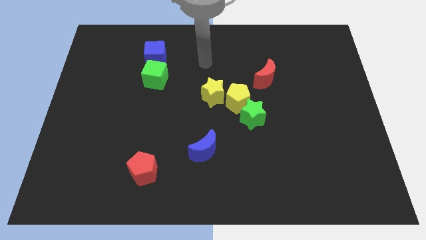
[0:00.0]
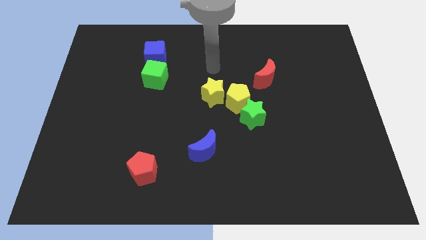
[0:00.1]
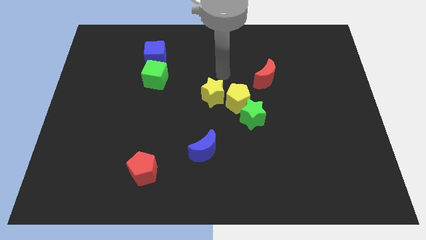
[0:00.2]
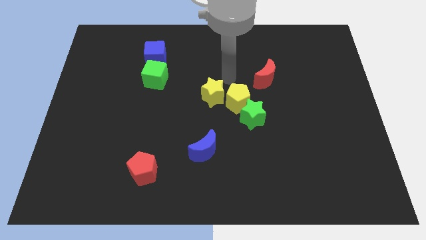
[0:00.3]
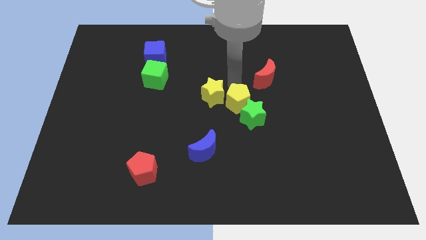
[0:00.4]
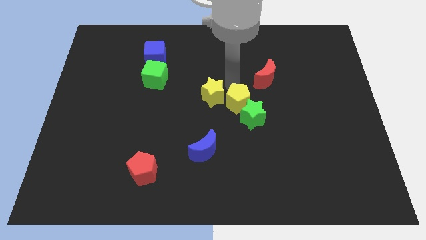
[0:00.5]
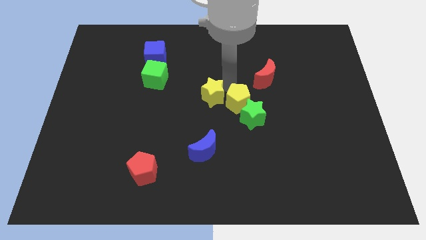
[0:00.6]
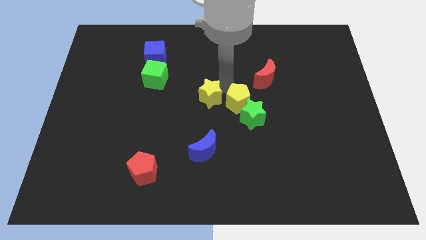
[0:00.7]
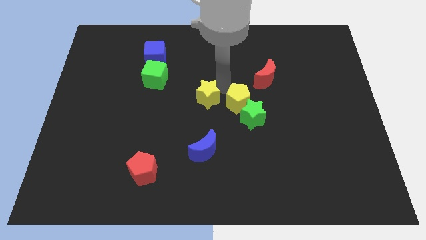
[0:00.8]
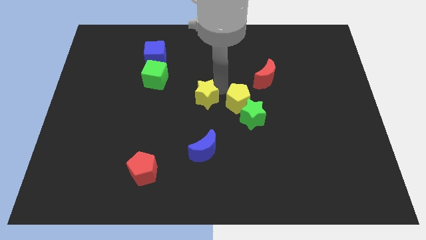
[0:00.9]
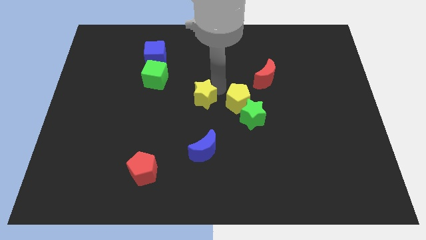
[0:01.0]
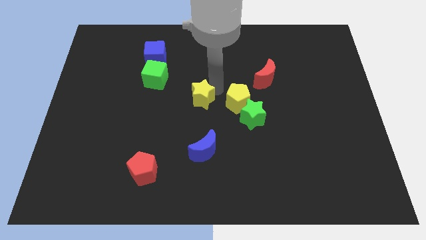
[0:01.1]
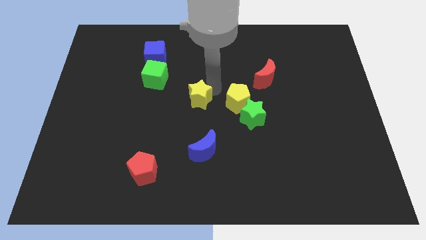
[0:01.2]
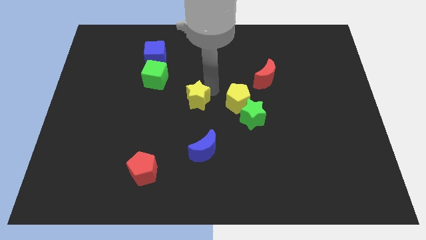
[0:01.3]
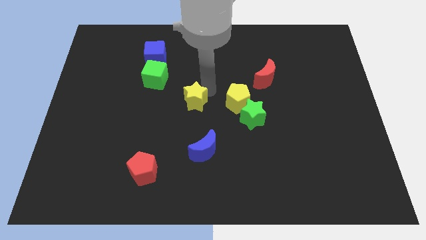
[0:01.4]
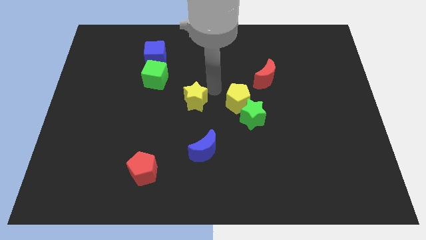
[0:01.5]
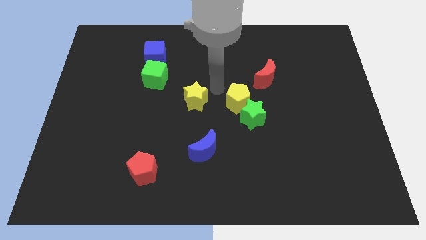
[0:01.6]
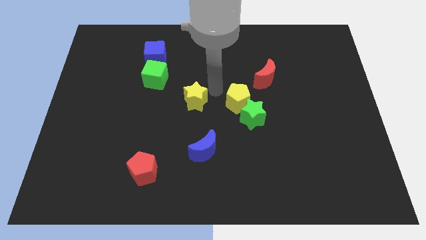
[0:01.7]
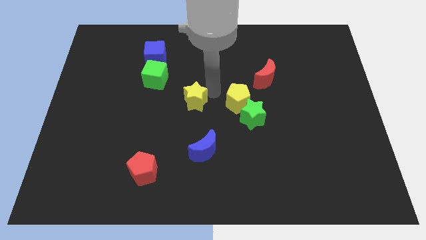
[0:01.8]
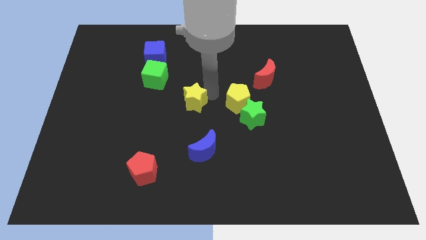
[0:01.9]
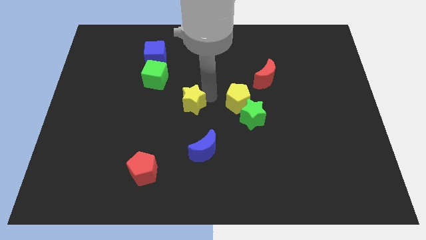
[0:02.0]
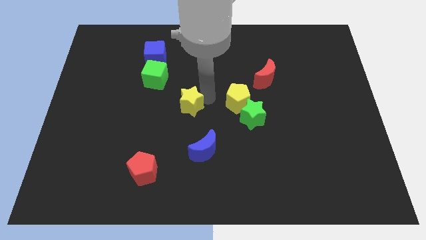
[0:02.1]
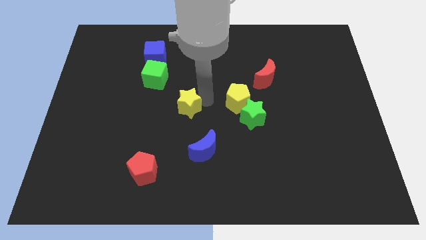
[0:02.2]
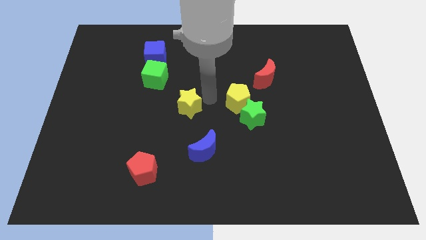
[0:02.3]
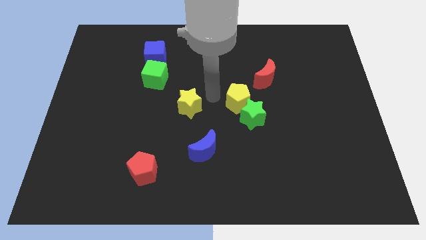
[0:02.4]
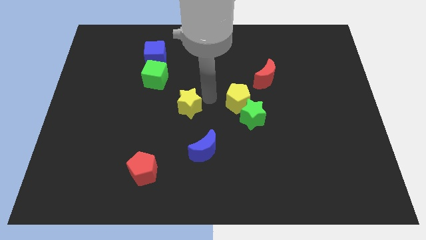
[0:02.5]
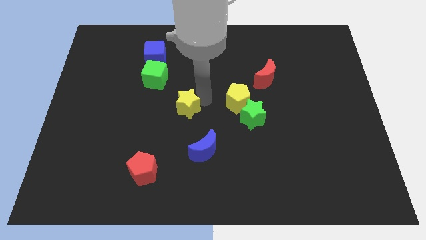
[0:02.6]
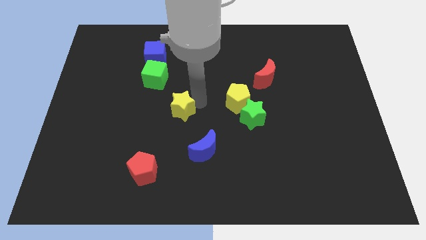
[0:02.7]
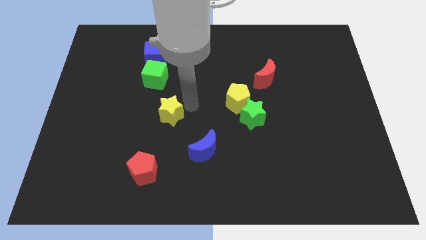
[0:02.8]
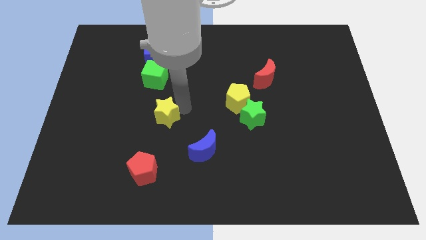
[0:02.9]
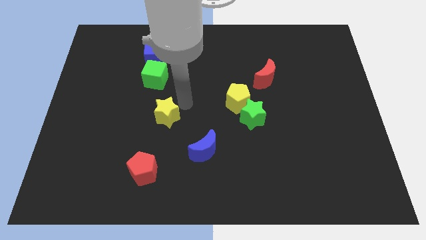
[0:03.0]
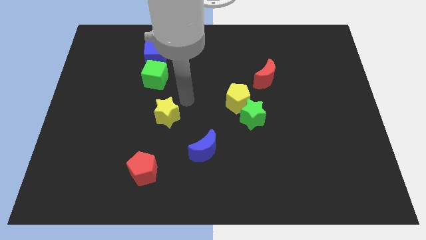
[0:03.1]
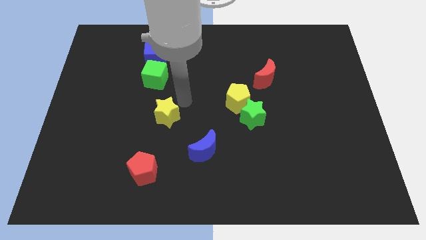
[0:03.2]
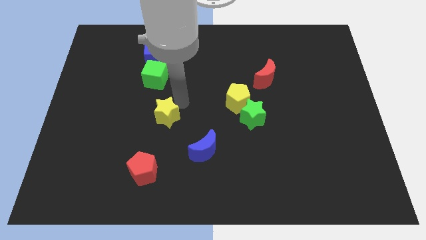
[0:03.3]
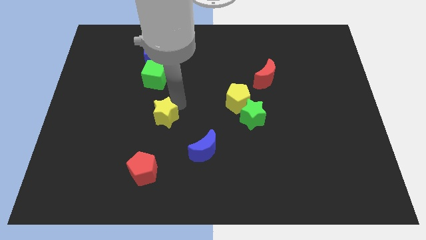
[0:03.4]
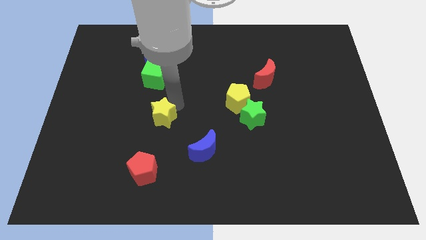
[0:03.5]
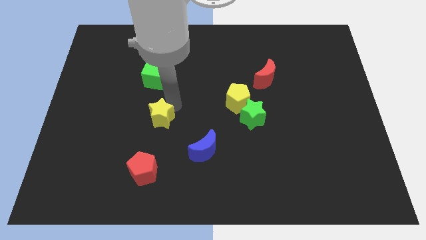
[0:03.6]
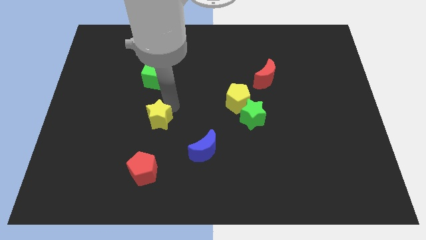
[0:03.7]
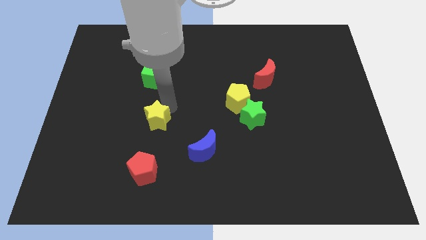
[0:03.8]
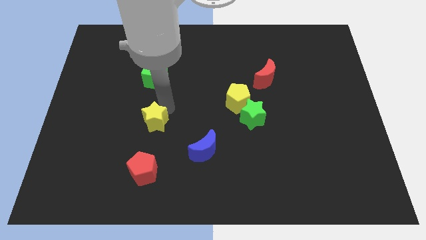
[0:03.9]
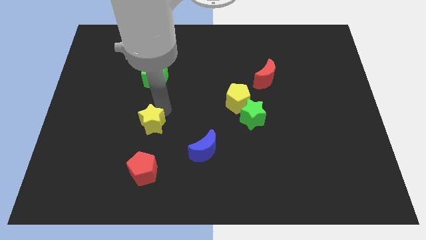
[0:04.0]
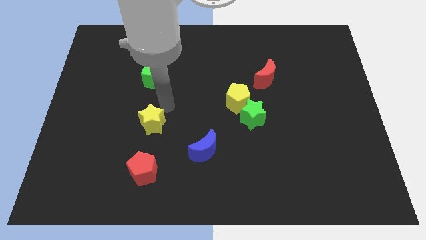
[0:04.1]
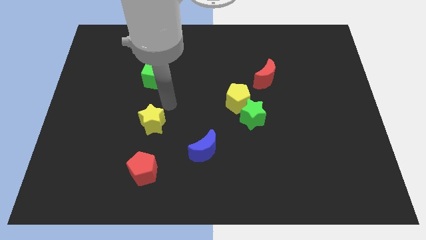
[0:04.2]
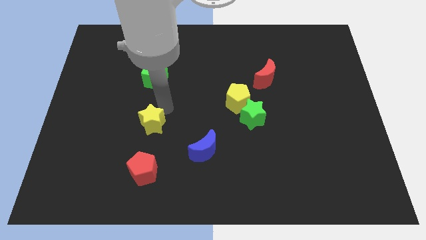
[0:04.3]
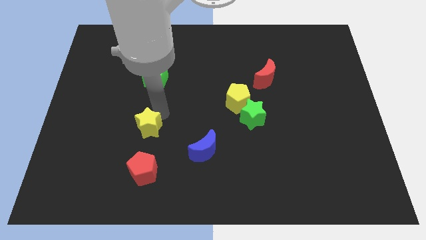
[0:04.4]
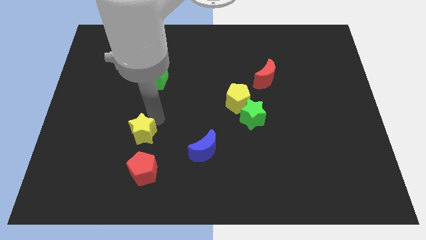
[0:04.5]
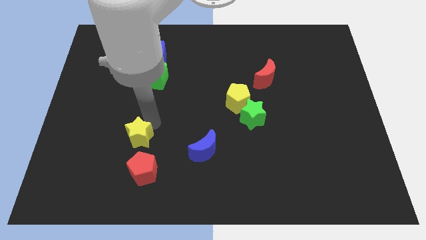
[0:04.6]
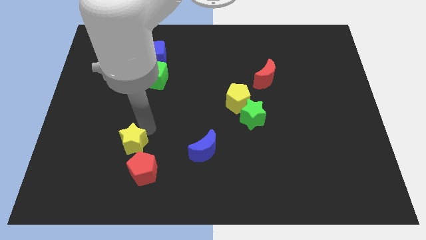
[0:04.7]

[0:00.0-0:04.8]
push the yellow star diagonally down and to the left

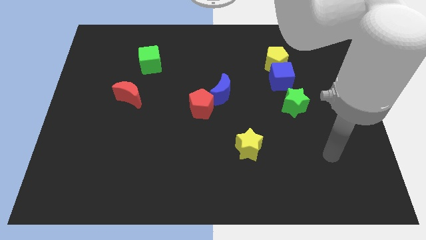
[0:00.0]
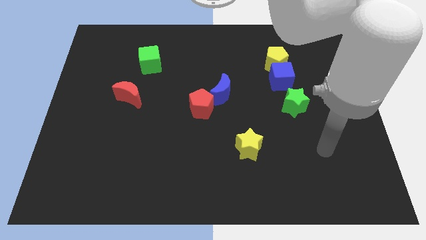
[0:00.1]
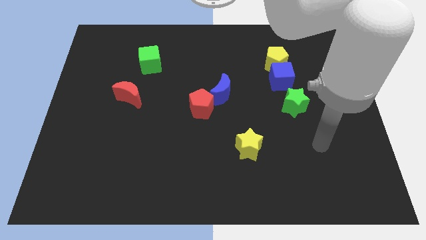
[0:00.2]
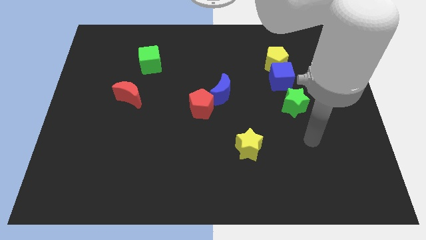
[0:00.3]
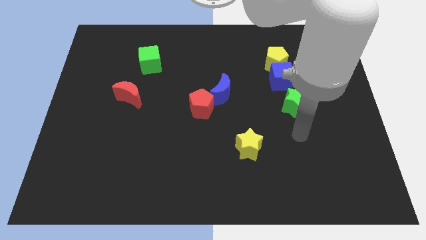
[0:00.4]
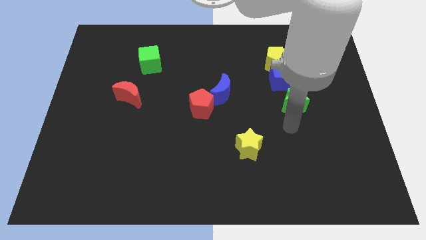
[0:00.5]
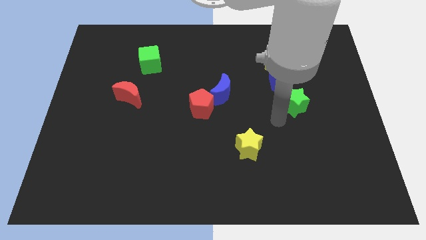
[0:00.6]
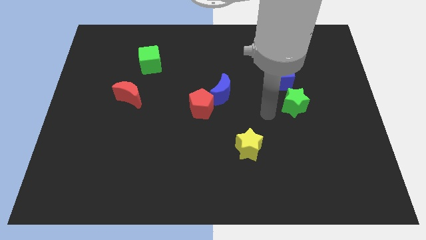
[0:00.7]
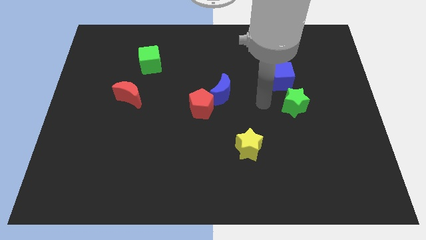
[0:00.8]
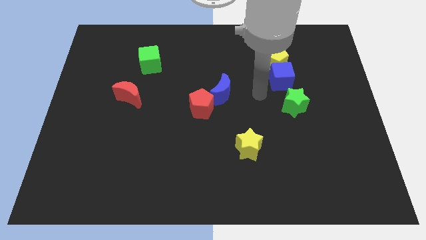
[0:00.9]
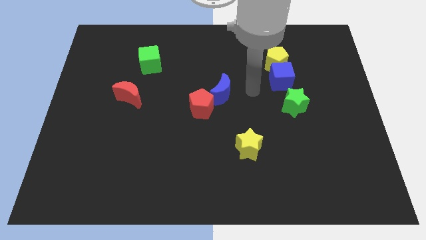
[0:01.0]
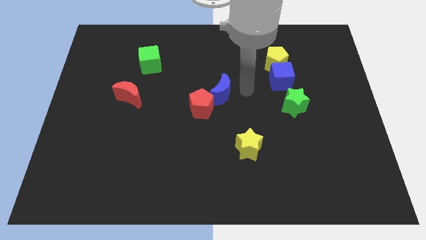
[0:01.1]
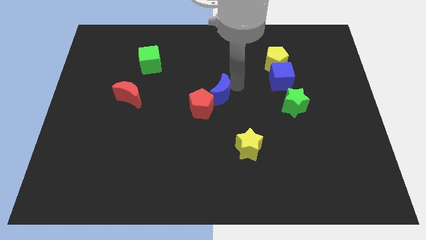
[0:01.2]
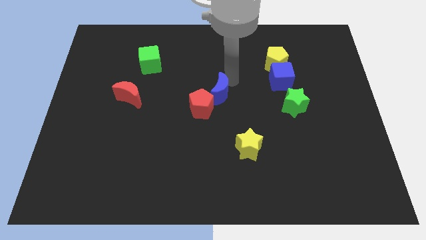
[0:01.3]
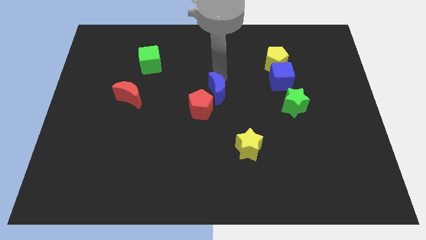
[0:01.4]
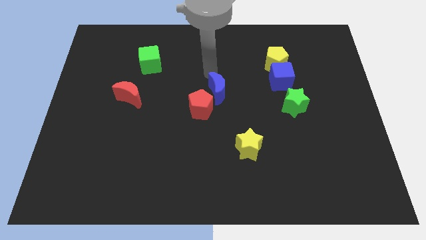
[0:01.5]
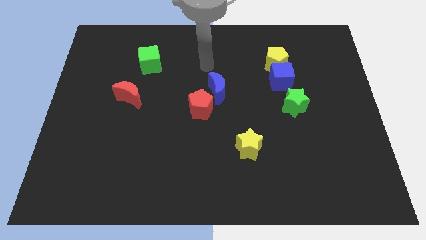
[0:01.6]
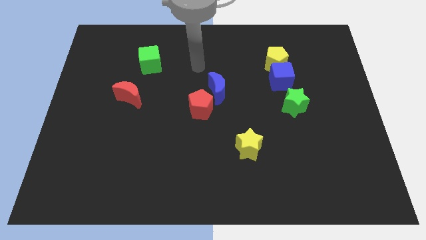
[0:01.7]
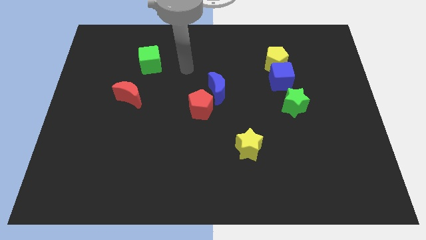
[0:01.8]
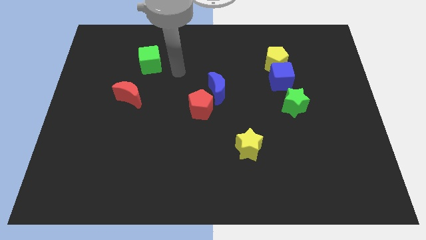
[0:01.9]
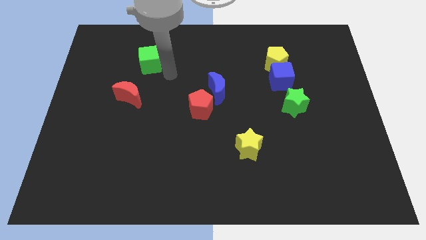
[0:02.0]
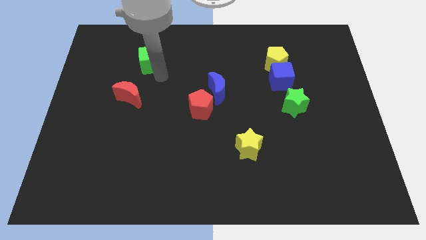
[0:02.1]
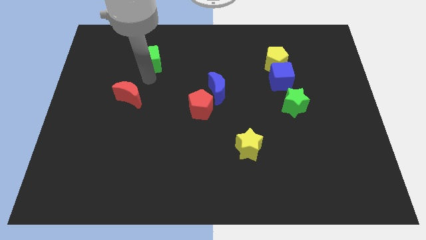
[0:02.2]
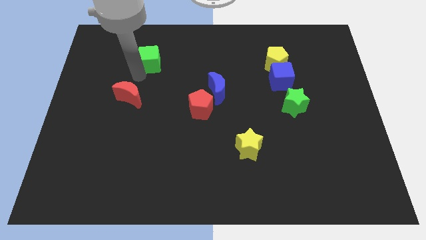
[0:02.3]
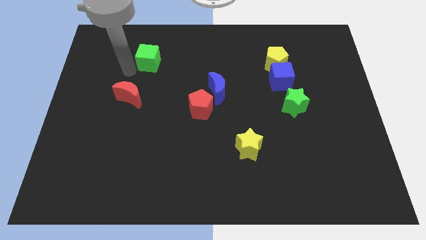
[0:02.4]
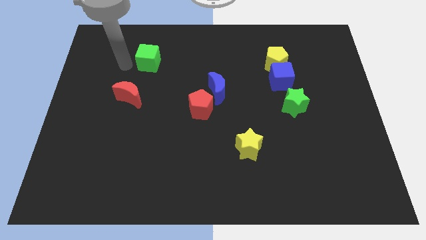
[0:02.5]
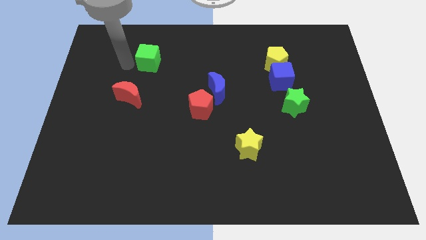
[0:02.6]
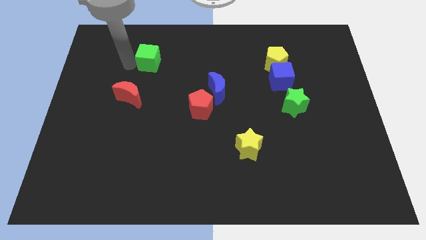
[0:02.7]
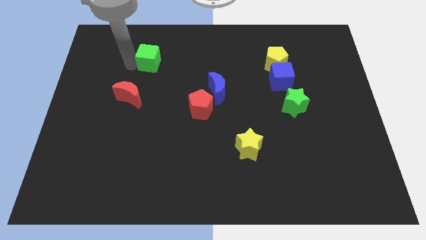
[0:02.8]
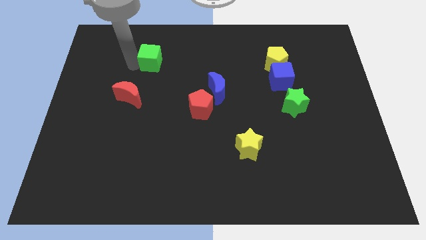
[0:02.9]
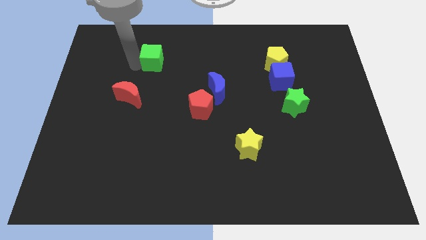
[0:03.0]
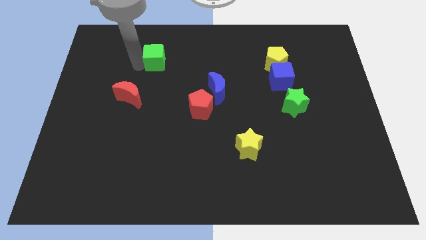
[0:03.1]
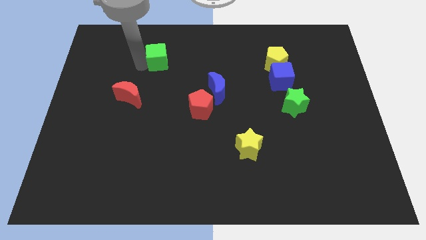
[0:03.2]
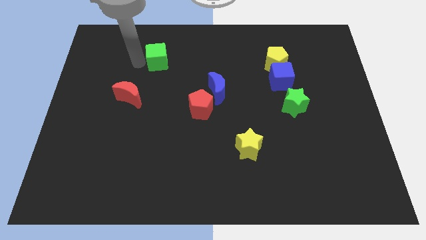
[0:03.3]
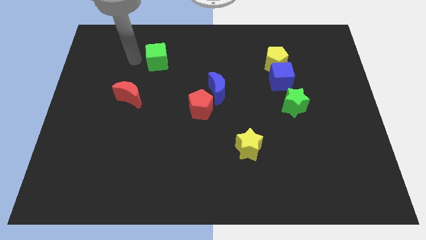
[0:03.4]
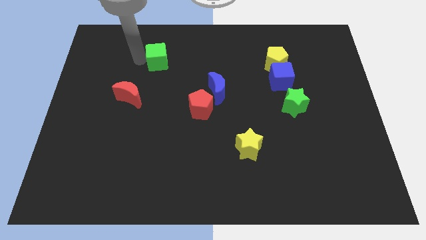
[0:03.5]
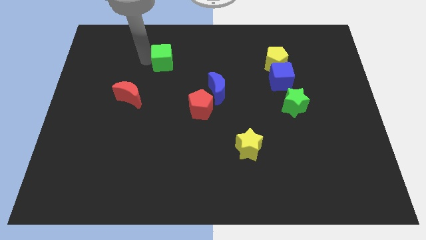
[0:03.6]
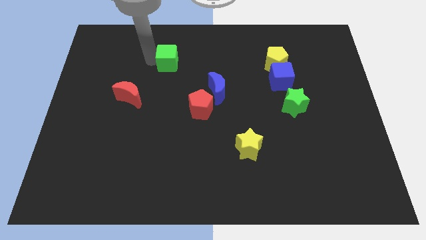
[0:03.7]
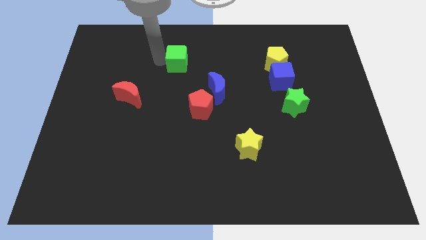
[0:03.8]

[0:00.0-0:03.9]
slightly move the green cube right
